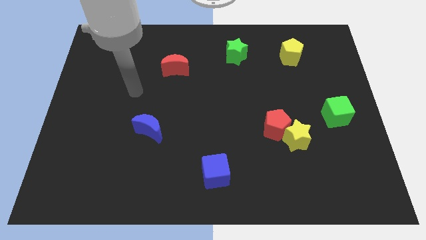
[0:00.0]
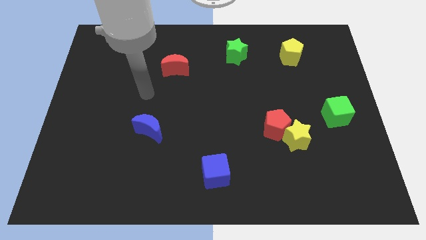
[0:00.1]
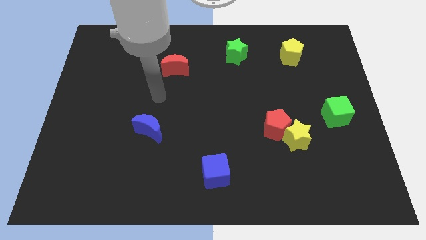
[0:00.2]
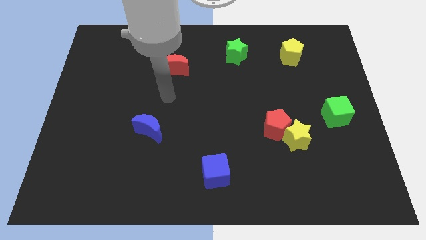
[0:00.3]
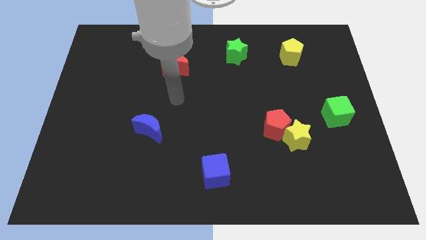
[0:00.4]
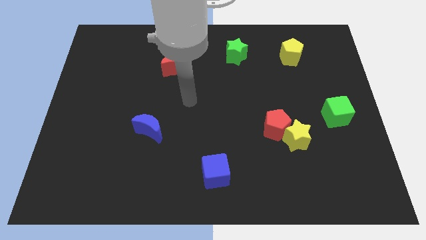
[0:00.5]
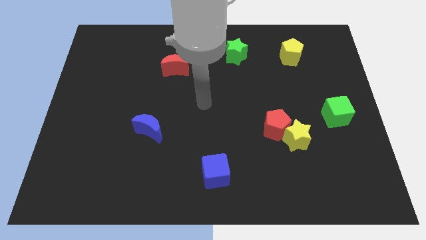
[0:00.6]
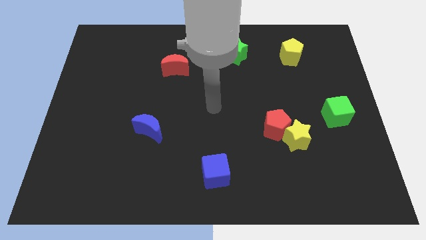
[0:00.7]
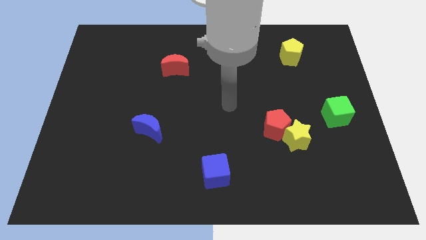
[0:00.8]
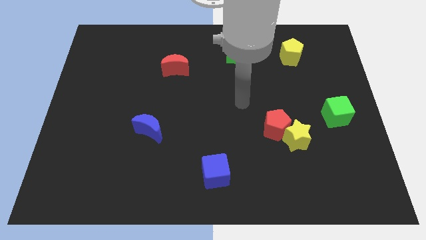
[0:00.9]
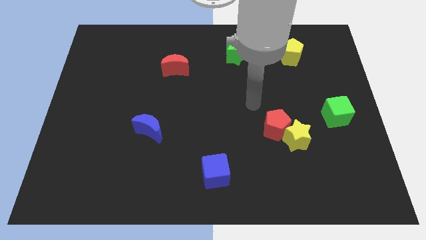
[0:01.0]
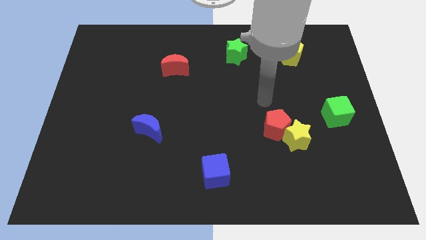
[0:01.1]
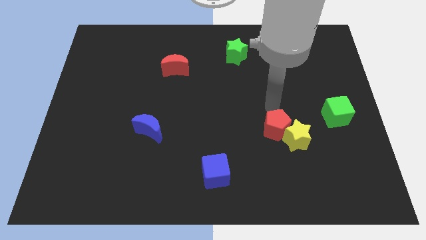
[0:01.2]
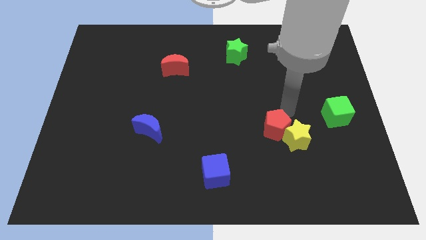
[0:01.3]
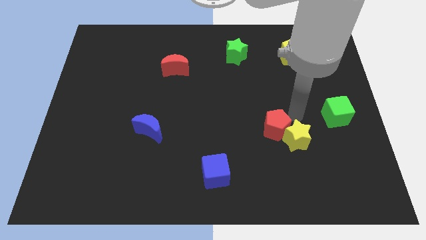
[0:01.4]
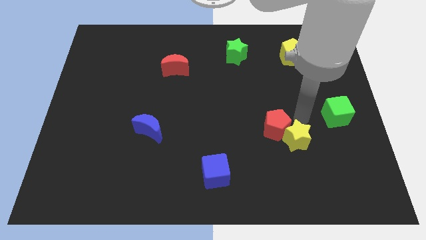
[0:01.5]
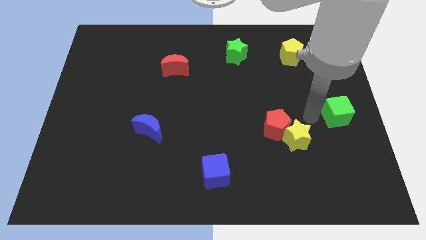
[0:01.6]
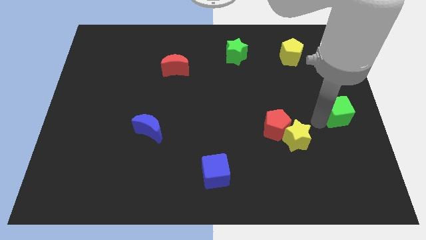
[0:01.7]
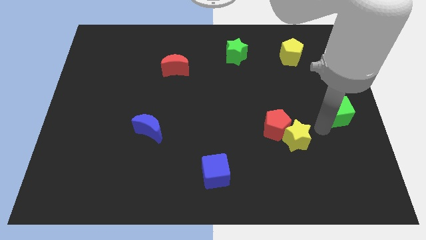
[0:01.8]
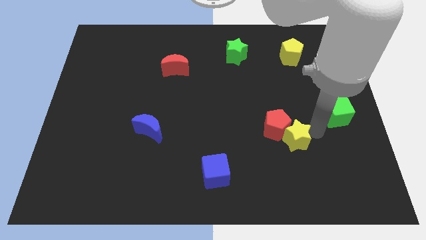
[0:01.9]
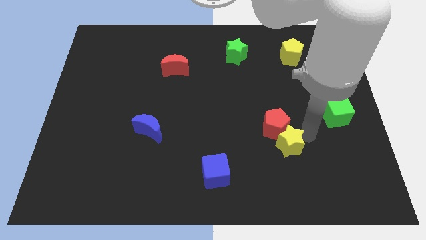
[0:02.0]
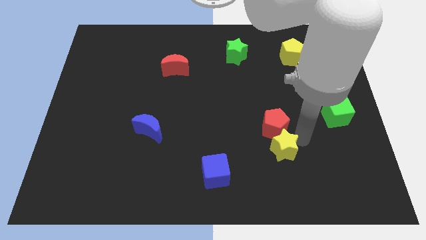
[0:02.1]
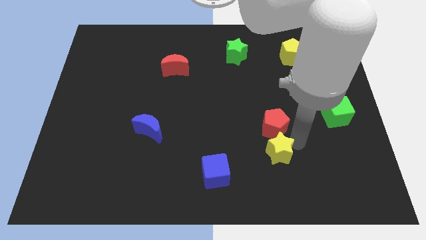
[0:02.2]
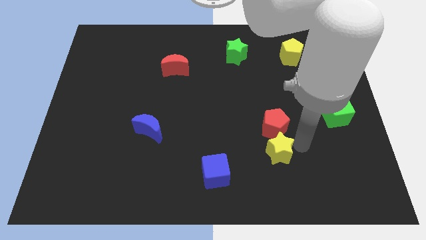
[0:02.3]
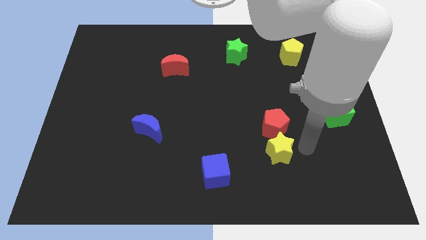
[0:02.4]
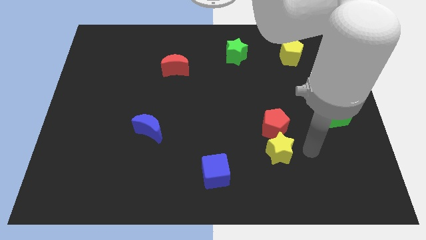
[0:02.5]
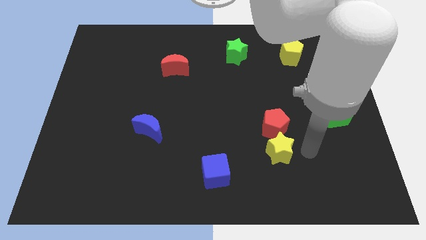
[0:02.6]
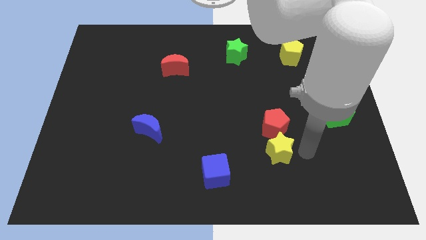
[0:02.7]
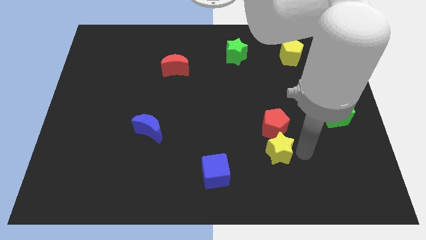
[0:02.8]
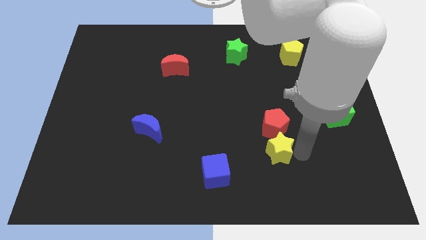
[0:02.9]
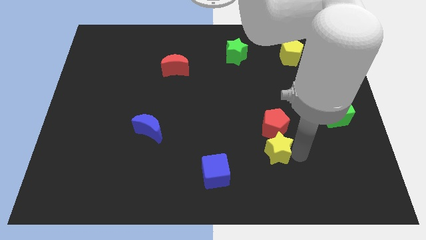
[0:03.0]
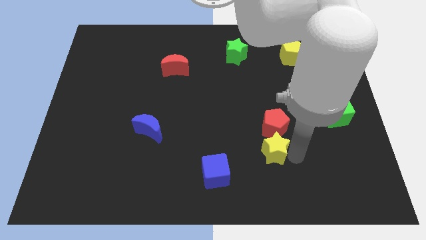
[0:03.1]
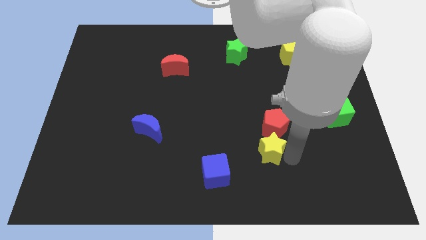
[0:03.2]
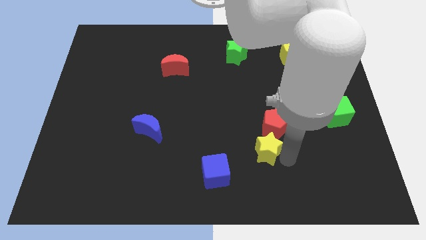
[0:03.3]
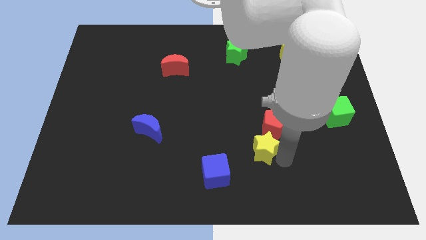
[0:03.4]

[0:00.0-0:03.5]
slightly move the yellow star left

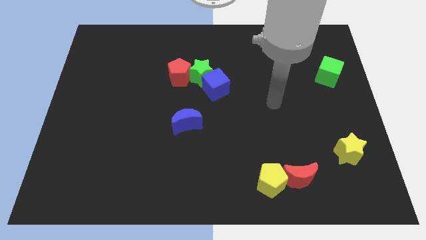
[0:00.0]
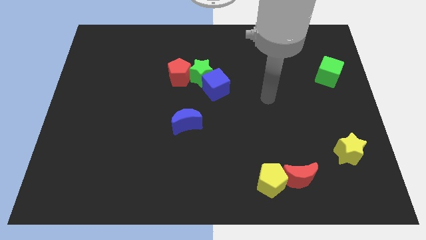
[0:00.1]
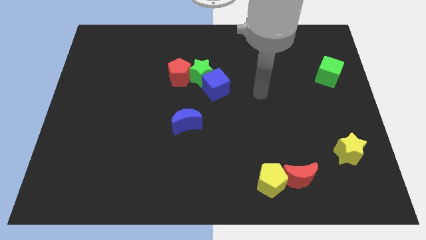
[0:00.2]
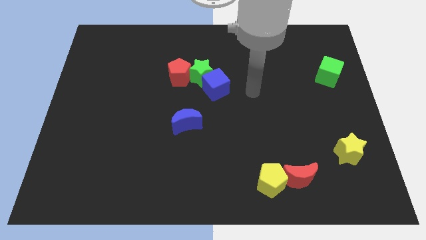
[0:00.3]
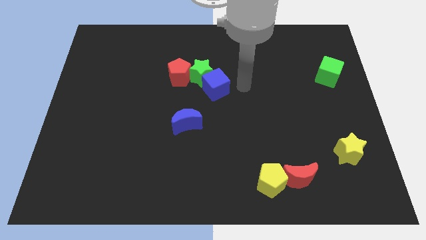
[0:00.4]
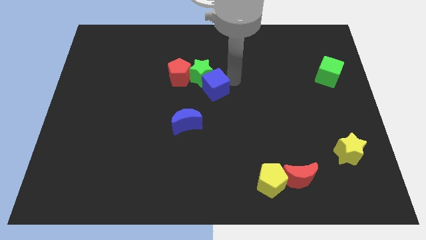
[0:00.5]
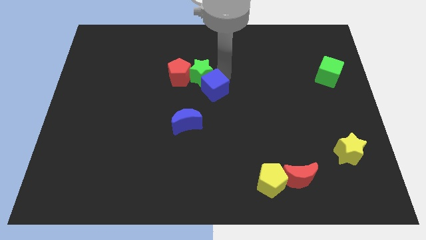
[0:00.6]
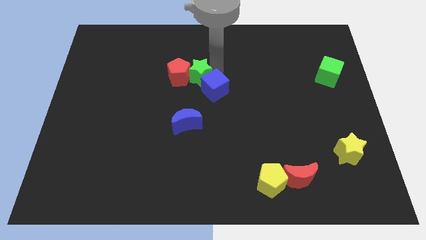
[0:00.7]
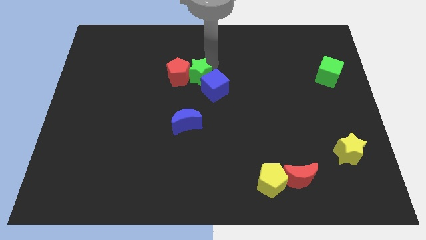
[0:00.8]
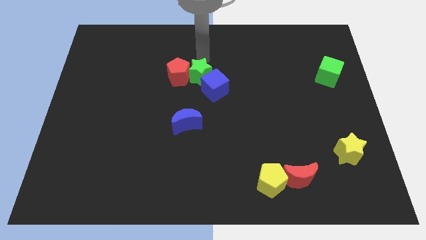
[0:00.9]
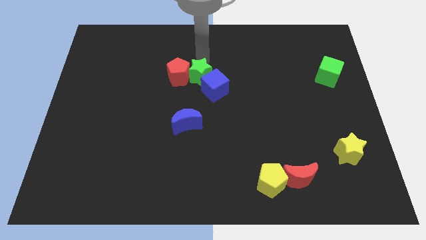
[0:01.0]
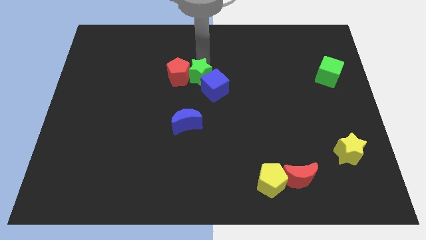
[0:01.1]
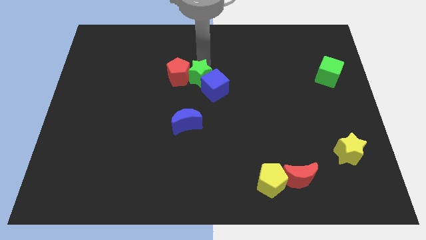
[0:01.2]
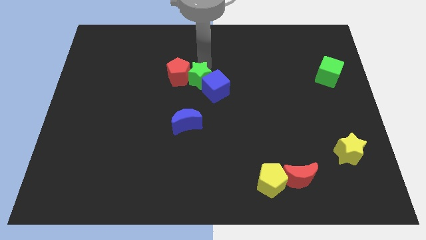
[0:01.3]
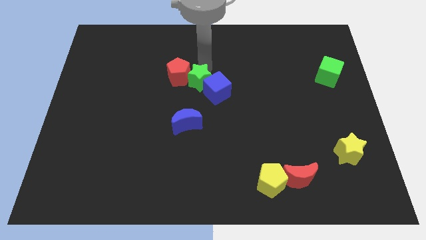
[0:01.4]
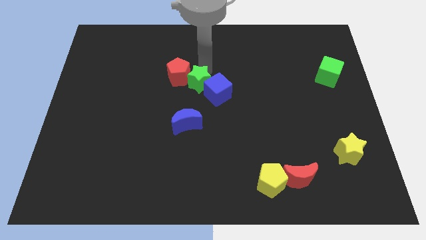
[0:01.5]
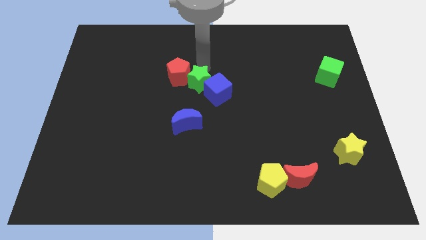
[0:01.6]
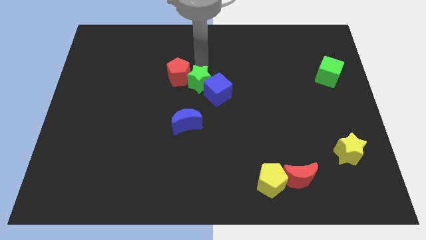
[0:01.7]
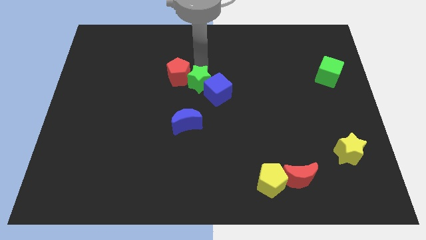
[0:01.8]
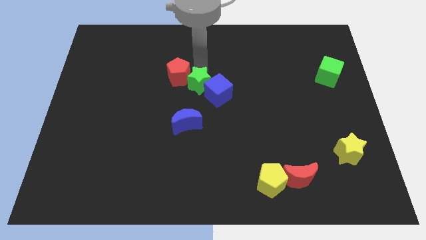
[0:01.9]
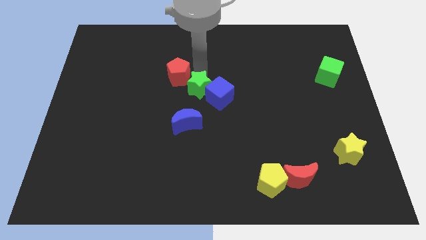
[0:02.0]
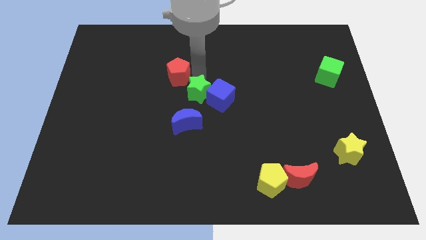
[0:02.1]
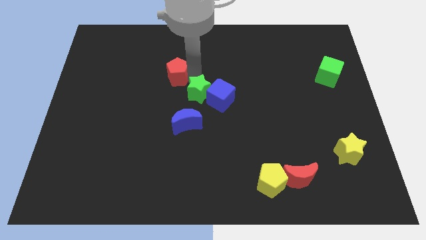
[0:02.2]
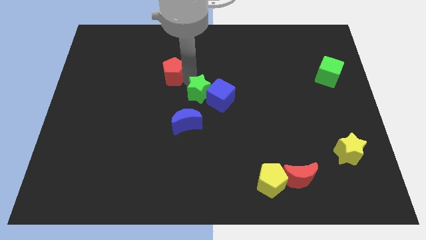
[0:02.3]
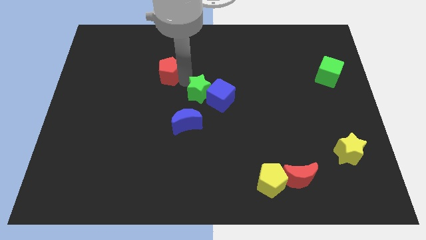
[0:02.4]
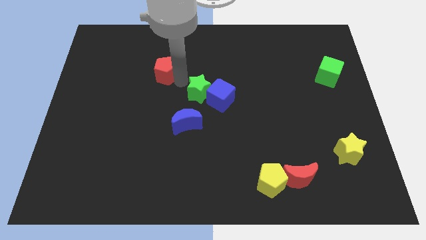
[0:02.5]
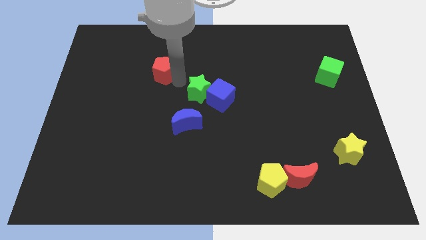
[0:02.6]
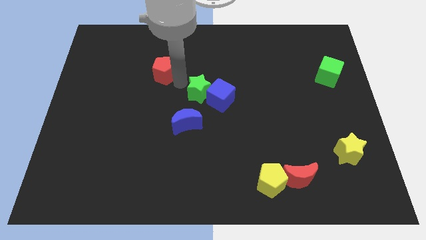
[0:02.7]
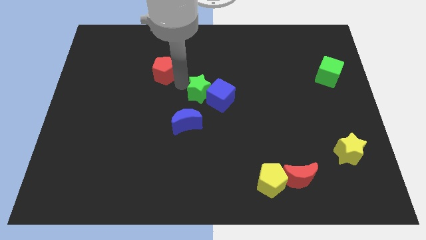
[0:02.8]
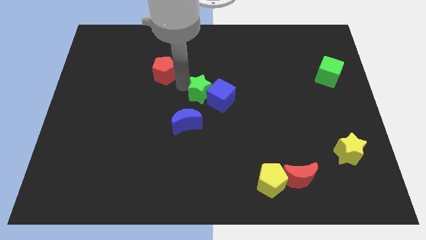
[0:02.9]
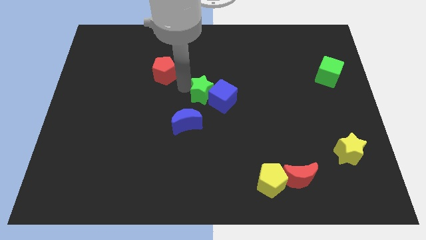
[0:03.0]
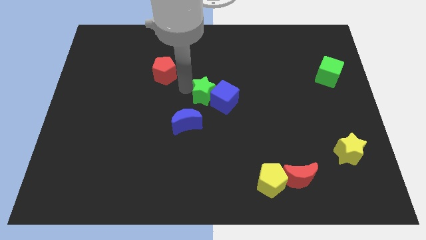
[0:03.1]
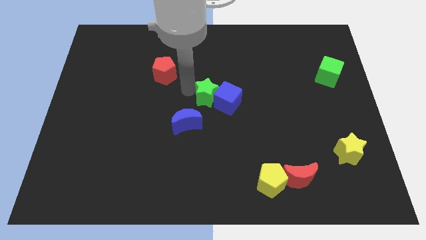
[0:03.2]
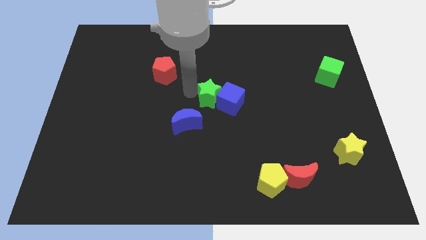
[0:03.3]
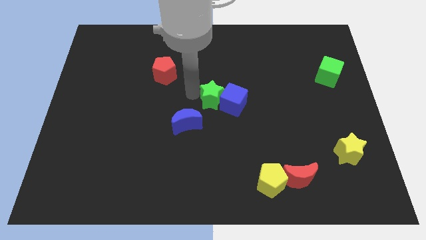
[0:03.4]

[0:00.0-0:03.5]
slide the green star a little bit diagonally down and right

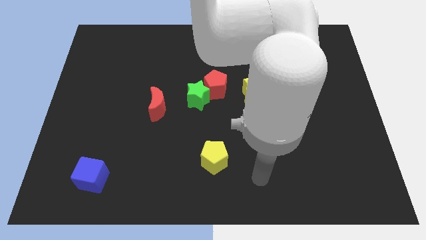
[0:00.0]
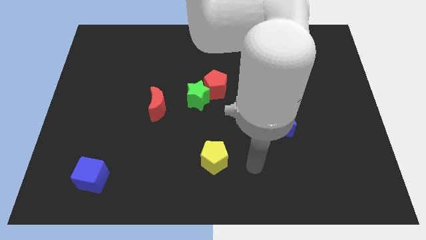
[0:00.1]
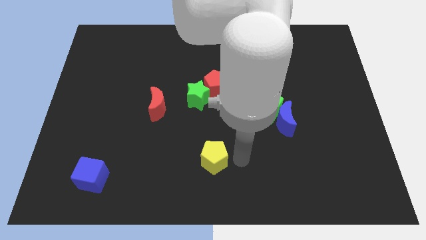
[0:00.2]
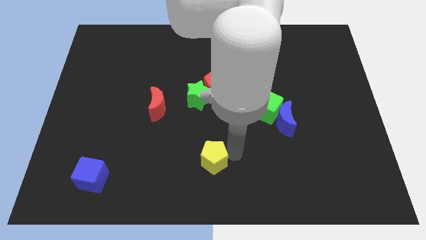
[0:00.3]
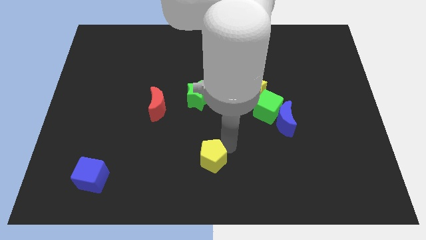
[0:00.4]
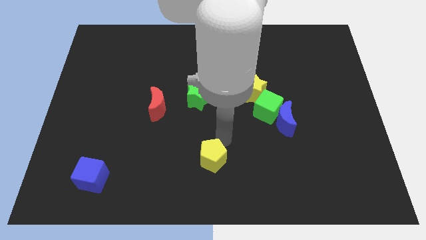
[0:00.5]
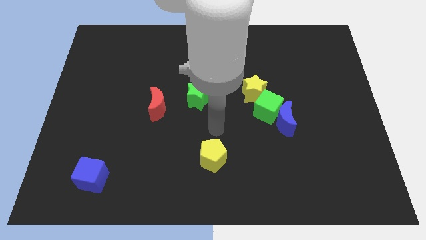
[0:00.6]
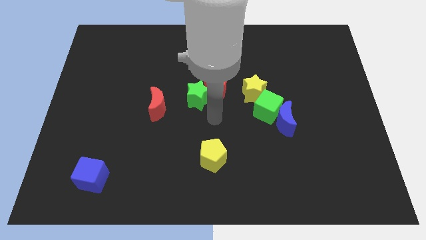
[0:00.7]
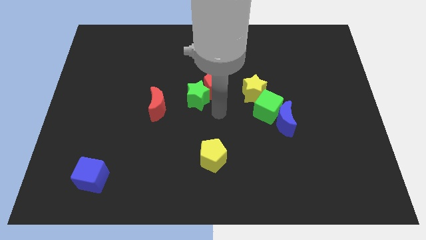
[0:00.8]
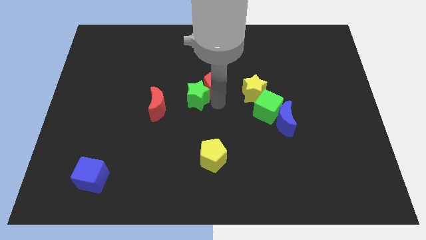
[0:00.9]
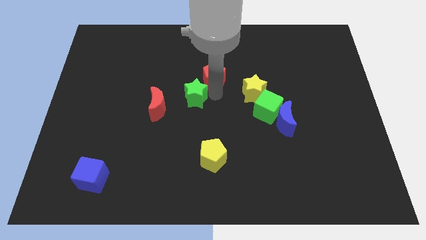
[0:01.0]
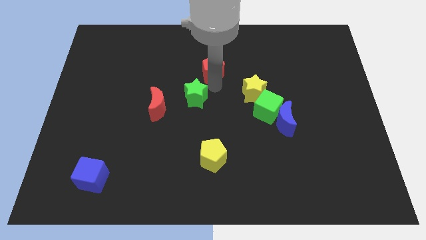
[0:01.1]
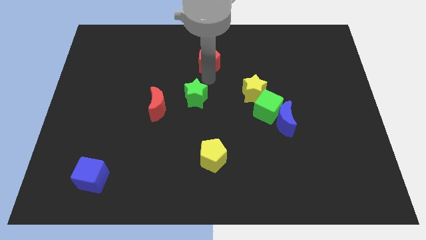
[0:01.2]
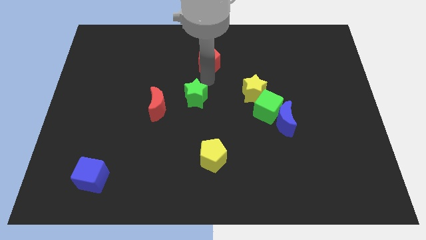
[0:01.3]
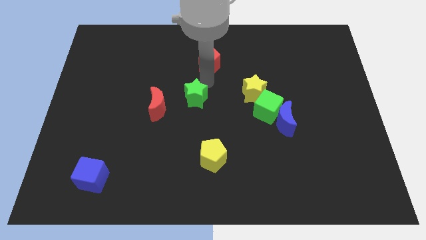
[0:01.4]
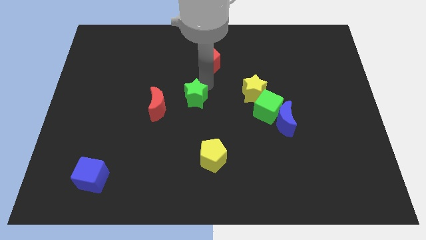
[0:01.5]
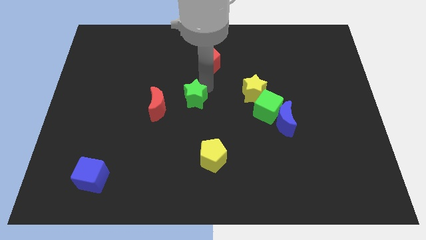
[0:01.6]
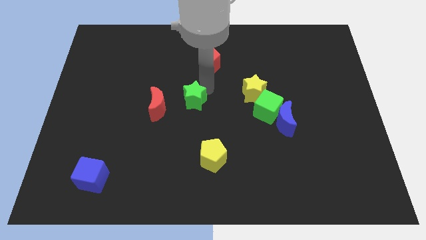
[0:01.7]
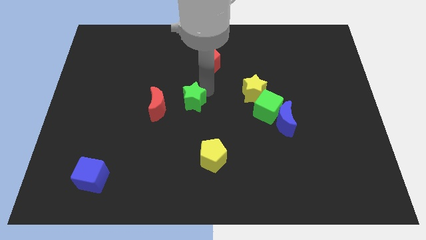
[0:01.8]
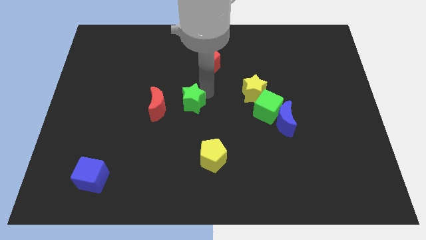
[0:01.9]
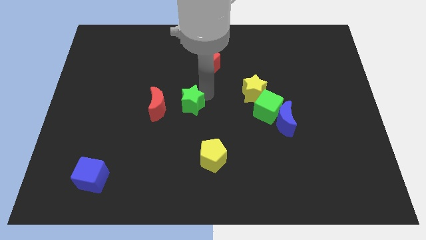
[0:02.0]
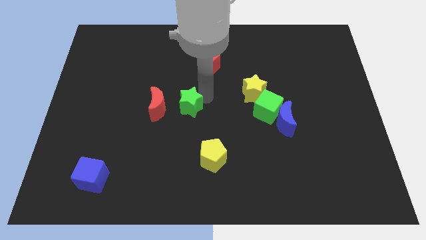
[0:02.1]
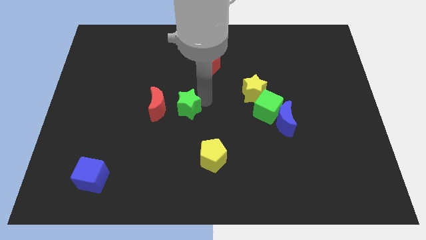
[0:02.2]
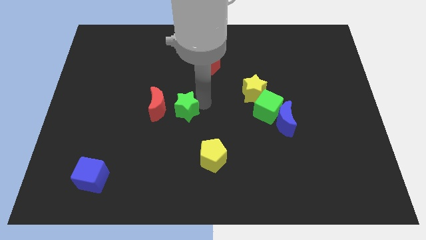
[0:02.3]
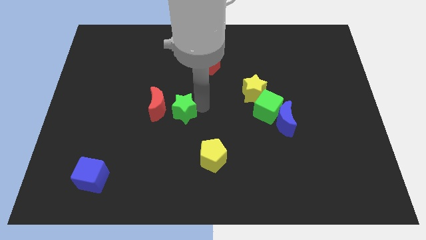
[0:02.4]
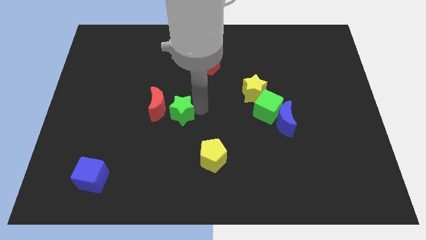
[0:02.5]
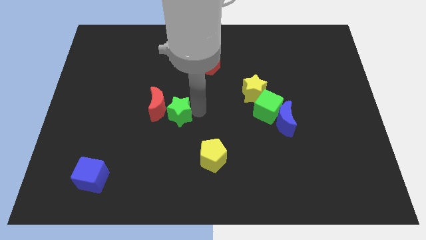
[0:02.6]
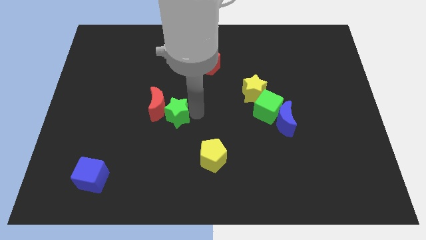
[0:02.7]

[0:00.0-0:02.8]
push the green star down and then left a bit
